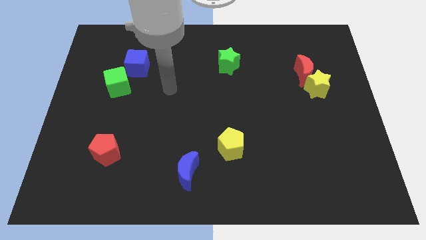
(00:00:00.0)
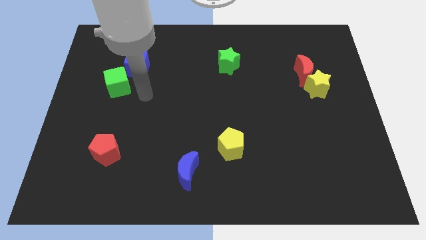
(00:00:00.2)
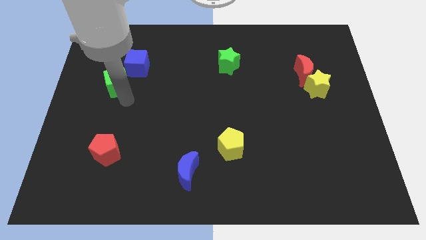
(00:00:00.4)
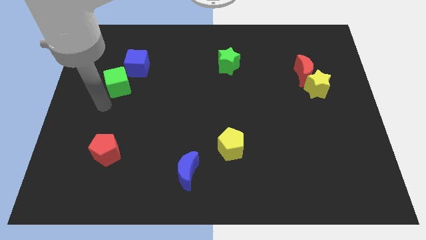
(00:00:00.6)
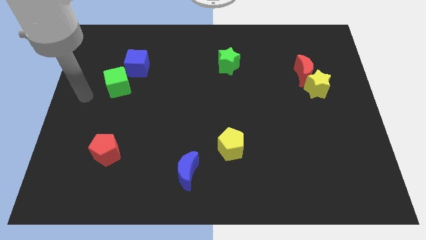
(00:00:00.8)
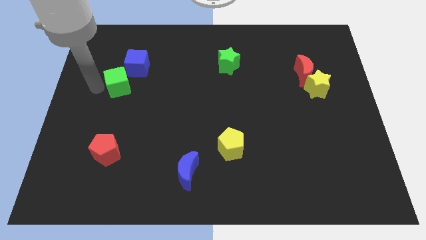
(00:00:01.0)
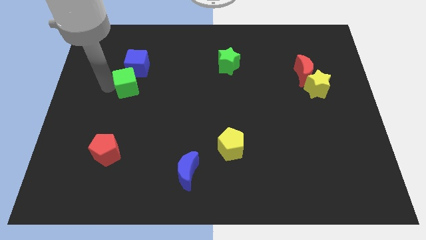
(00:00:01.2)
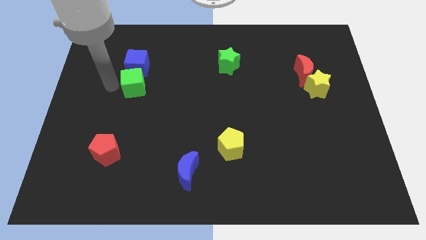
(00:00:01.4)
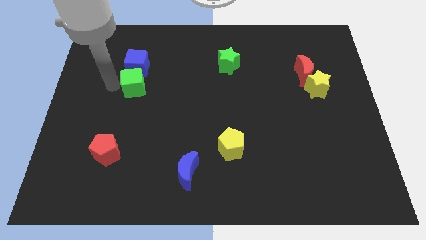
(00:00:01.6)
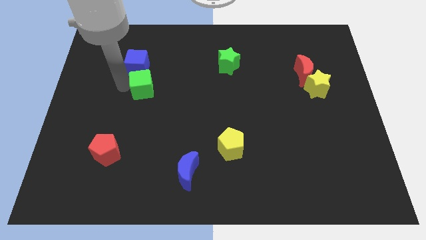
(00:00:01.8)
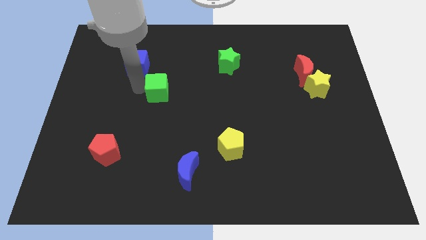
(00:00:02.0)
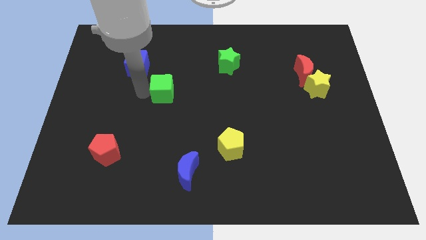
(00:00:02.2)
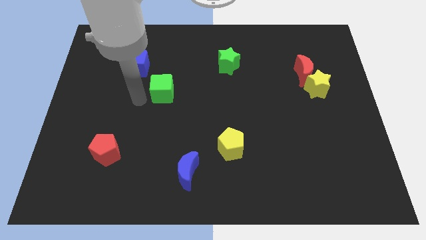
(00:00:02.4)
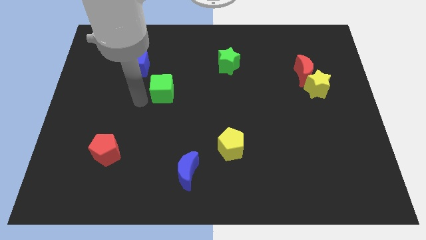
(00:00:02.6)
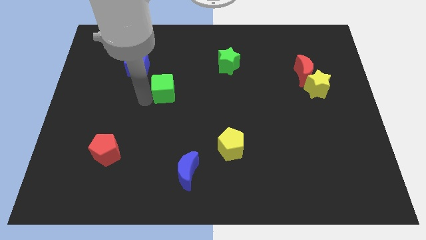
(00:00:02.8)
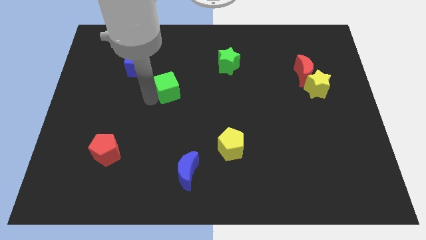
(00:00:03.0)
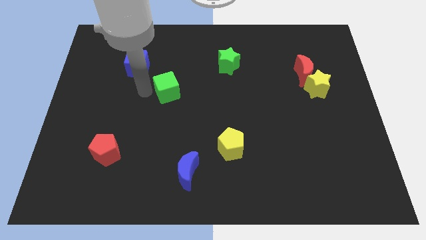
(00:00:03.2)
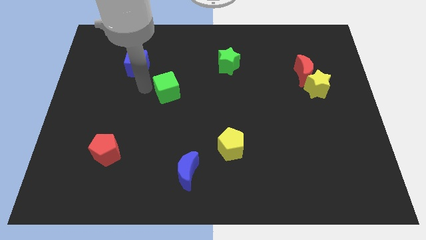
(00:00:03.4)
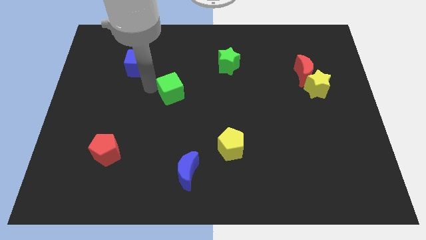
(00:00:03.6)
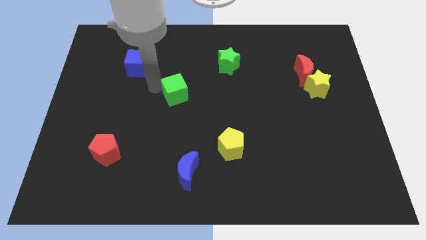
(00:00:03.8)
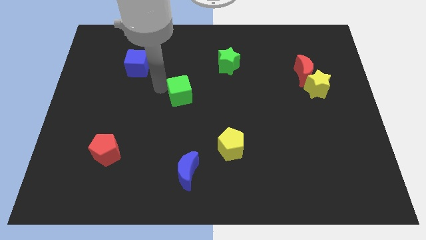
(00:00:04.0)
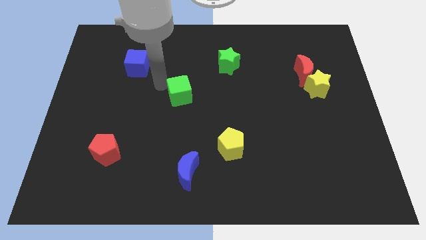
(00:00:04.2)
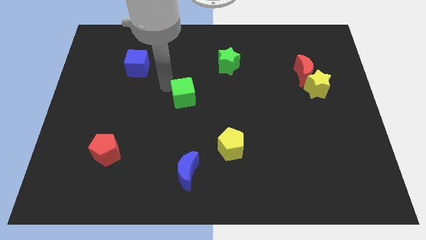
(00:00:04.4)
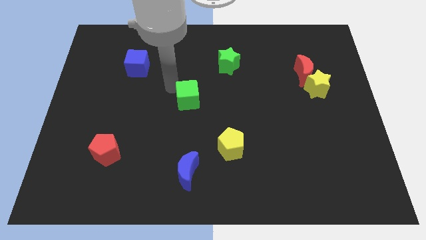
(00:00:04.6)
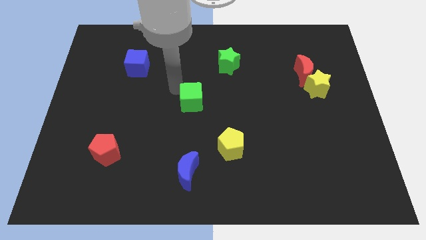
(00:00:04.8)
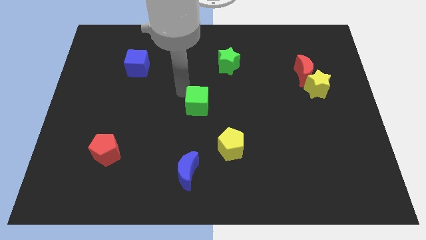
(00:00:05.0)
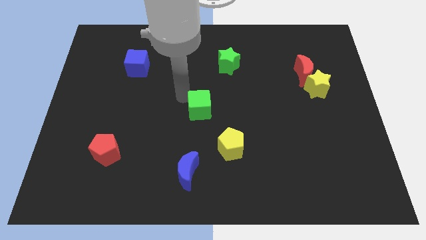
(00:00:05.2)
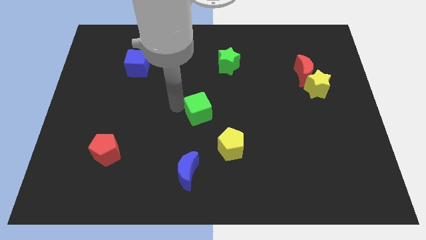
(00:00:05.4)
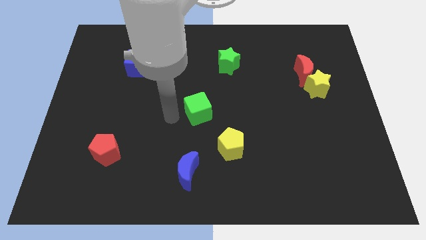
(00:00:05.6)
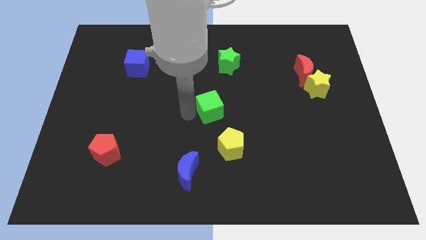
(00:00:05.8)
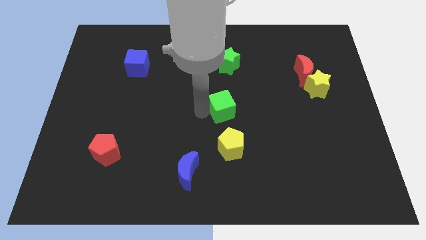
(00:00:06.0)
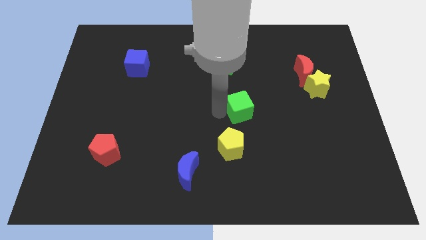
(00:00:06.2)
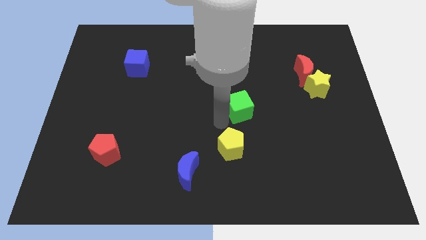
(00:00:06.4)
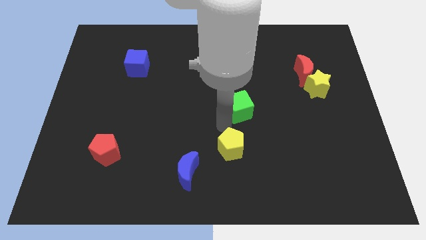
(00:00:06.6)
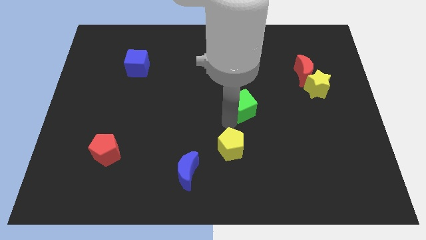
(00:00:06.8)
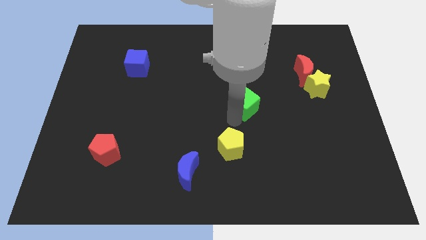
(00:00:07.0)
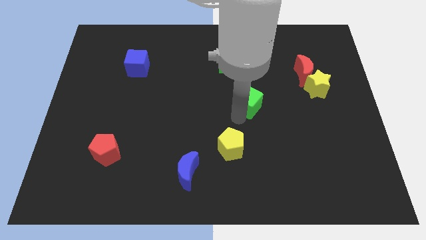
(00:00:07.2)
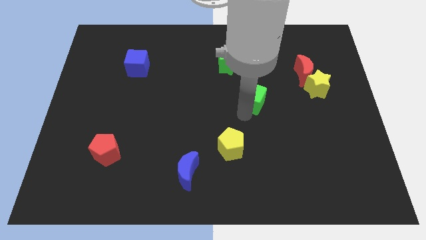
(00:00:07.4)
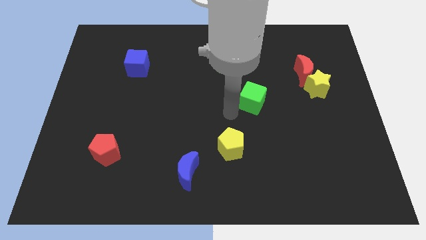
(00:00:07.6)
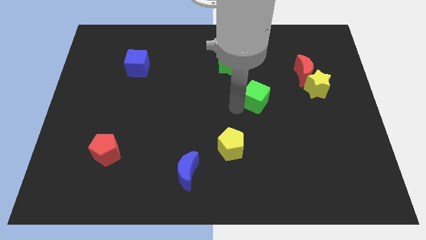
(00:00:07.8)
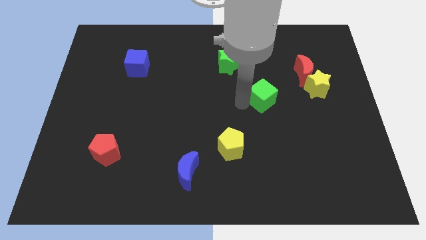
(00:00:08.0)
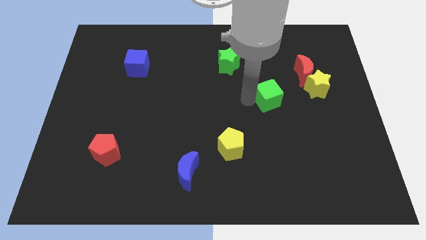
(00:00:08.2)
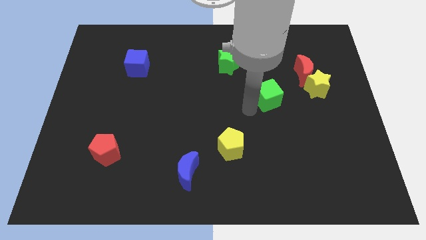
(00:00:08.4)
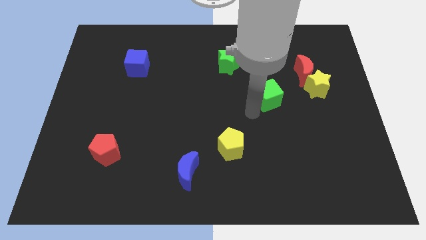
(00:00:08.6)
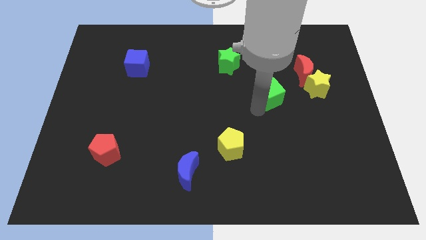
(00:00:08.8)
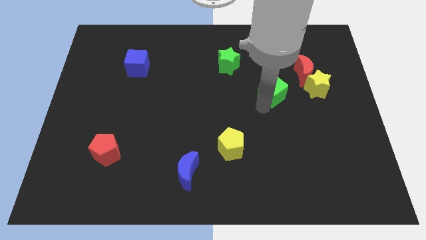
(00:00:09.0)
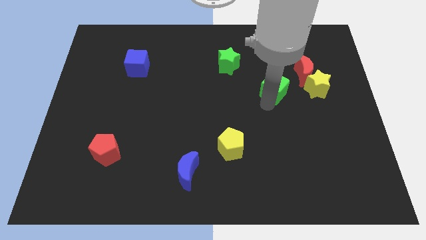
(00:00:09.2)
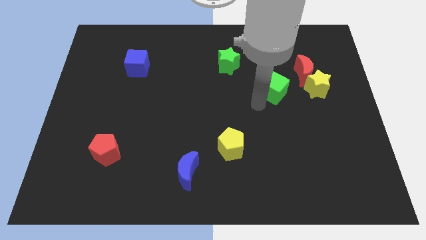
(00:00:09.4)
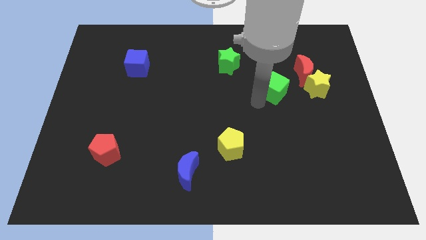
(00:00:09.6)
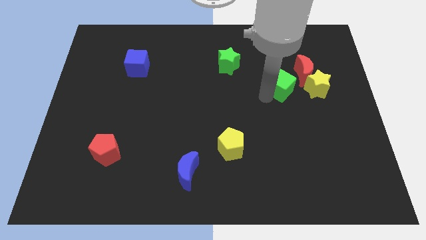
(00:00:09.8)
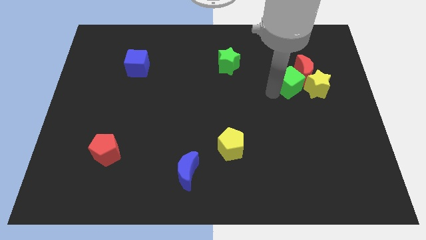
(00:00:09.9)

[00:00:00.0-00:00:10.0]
push the green cube next to the red moon

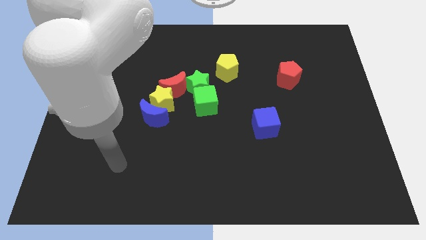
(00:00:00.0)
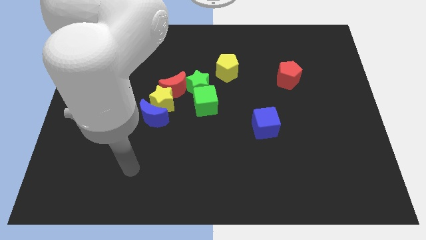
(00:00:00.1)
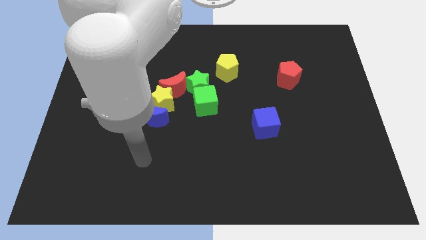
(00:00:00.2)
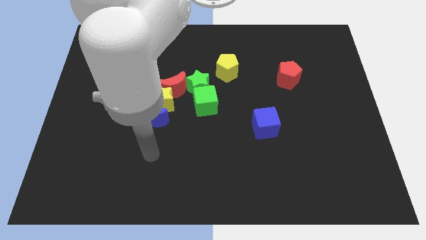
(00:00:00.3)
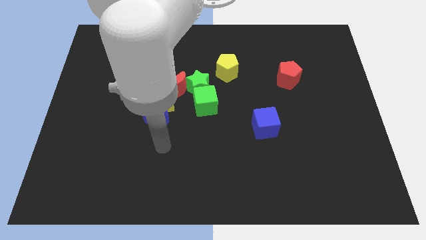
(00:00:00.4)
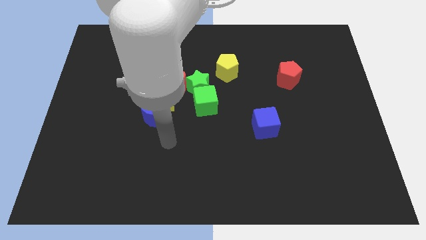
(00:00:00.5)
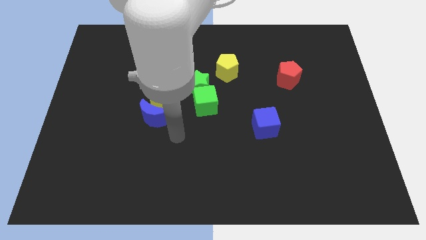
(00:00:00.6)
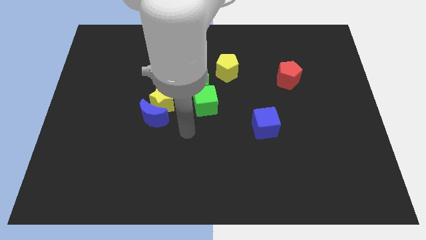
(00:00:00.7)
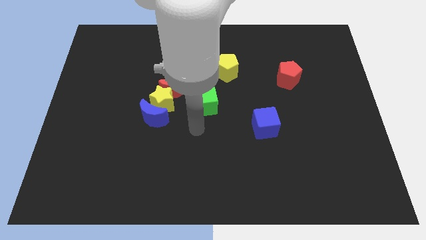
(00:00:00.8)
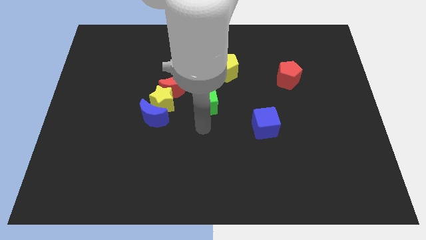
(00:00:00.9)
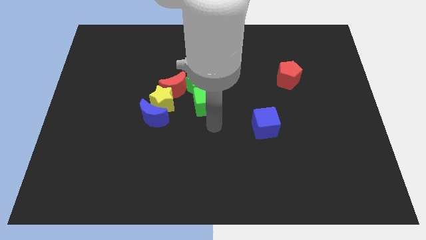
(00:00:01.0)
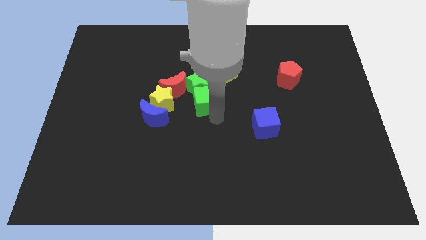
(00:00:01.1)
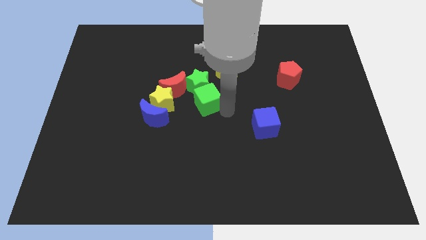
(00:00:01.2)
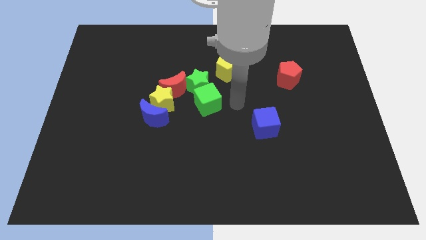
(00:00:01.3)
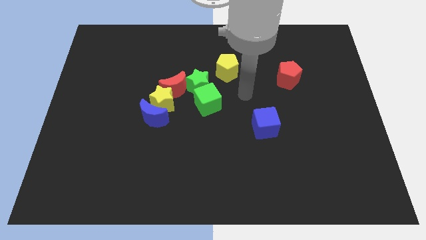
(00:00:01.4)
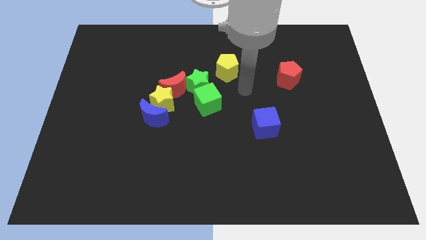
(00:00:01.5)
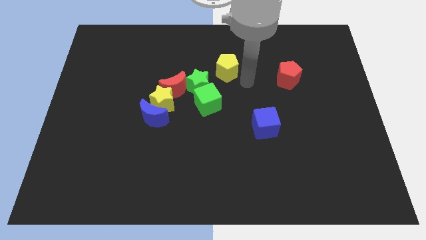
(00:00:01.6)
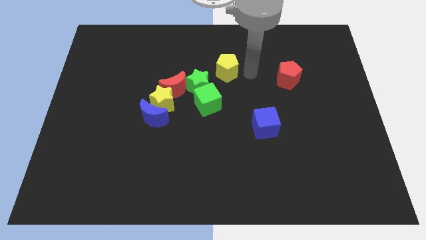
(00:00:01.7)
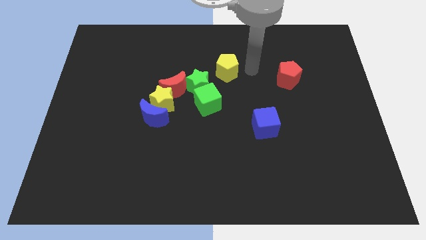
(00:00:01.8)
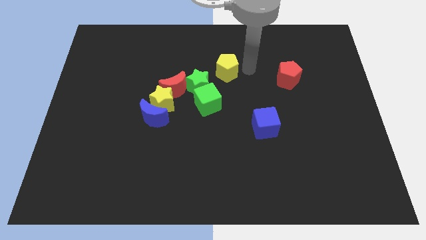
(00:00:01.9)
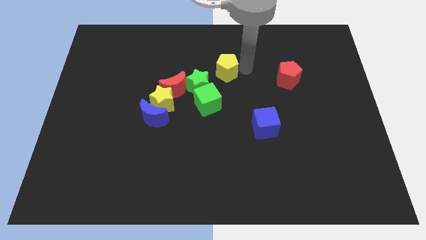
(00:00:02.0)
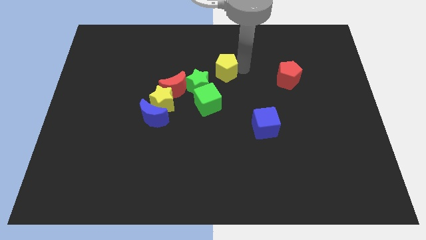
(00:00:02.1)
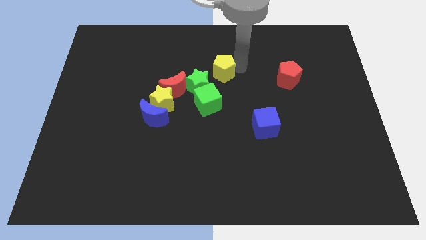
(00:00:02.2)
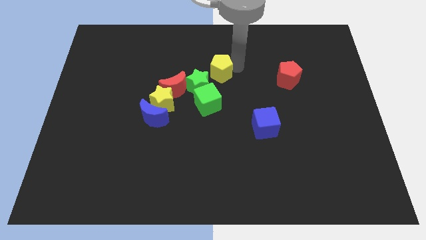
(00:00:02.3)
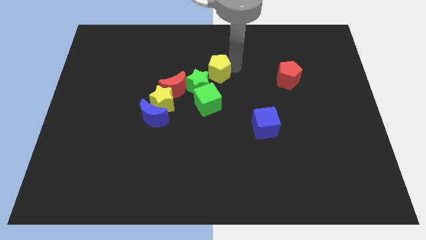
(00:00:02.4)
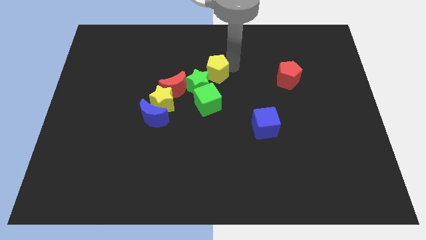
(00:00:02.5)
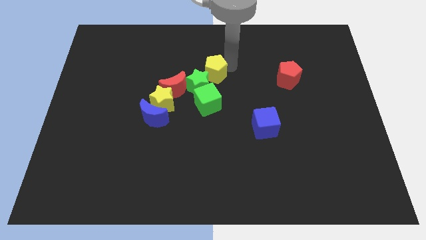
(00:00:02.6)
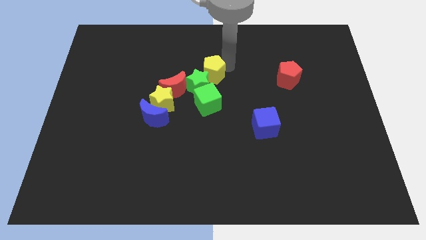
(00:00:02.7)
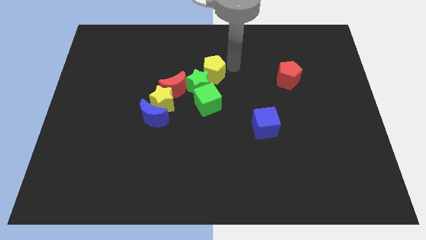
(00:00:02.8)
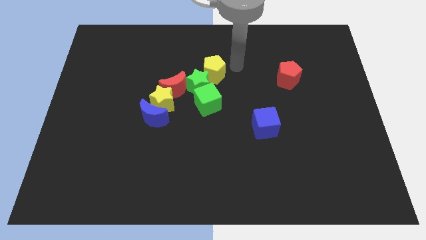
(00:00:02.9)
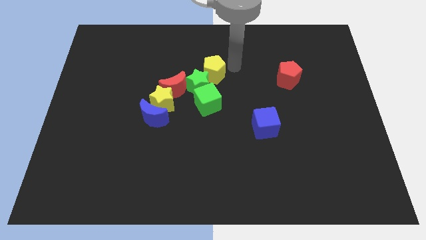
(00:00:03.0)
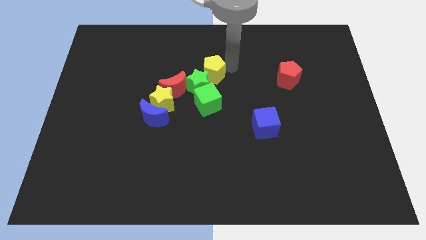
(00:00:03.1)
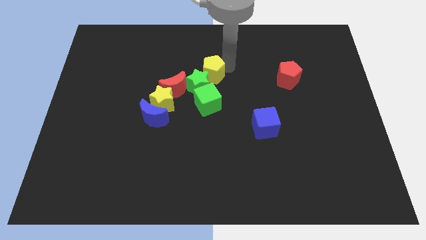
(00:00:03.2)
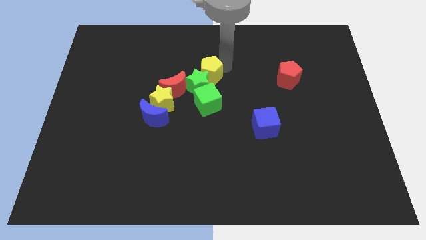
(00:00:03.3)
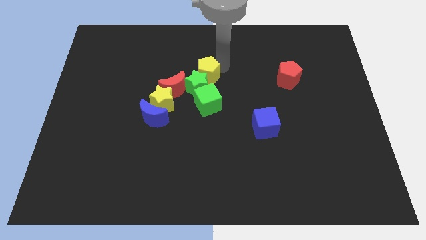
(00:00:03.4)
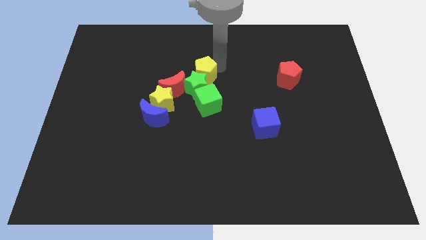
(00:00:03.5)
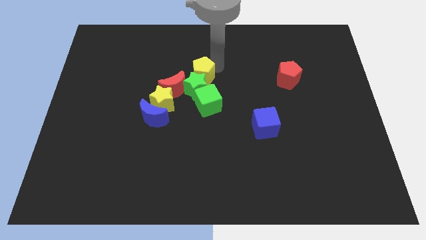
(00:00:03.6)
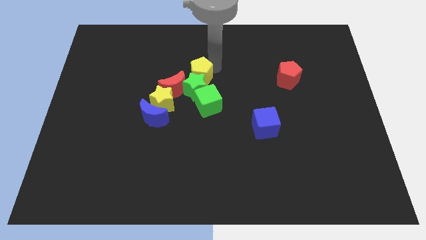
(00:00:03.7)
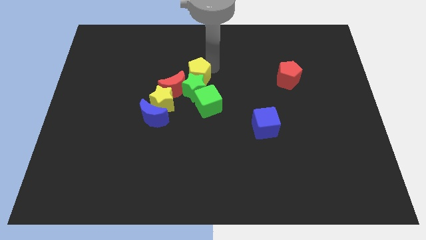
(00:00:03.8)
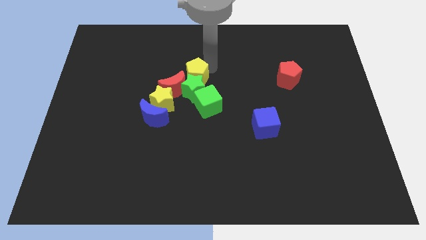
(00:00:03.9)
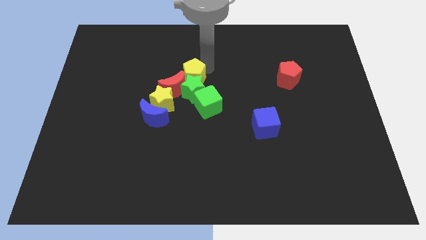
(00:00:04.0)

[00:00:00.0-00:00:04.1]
push the yellow pentagon next to the red moon
